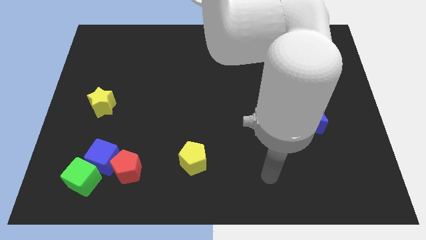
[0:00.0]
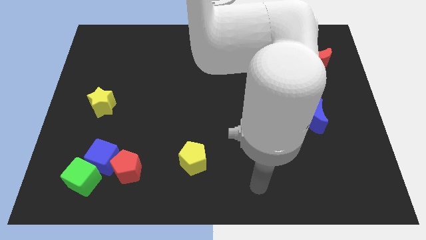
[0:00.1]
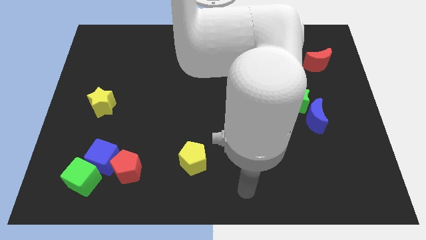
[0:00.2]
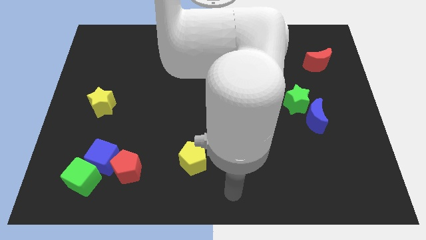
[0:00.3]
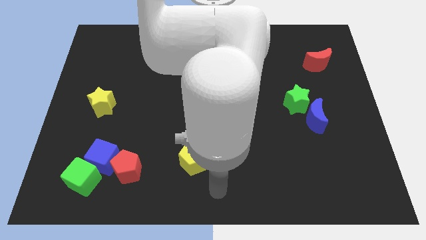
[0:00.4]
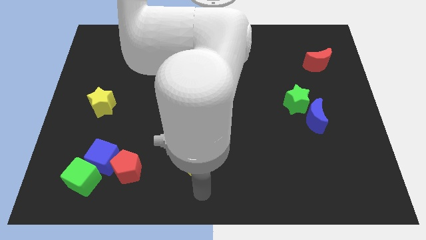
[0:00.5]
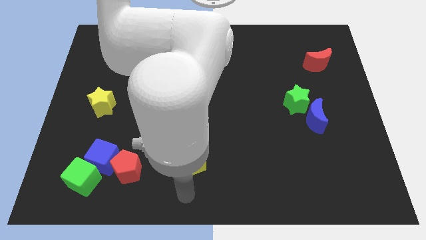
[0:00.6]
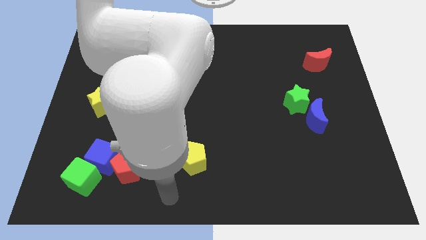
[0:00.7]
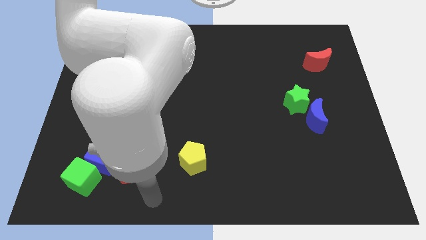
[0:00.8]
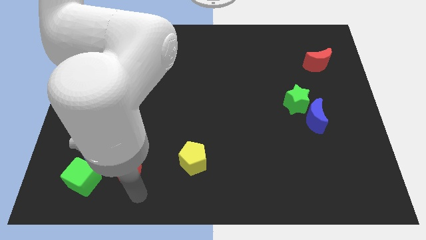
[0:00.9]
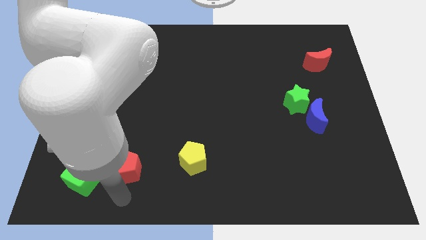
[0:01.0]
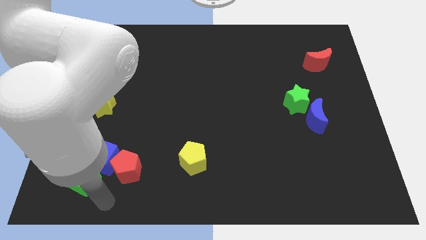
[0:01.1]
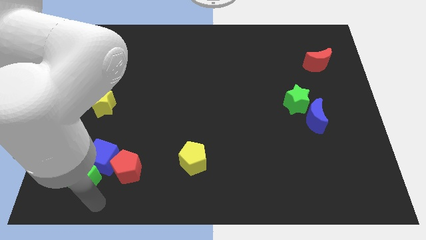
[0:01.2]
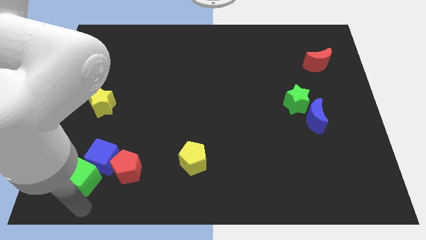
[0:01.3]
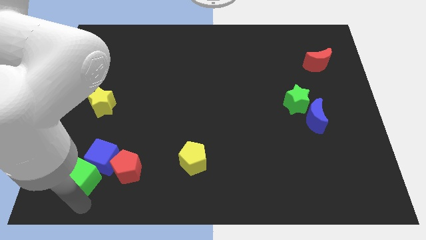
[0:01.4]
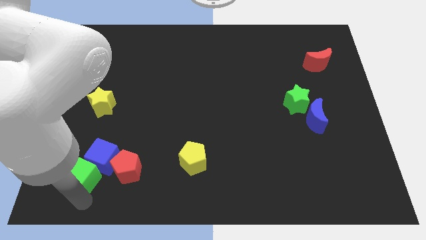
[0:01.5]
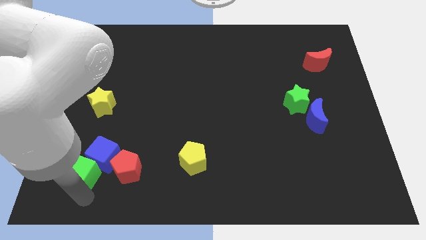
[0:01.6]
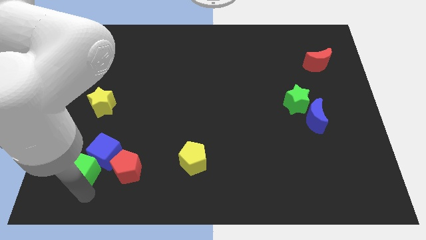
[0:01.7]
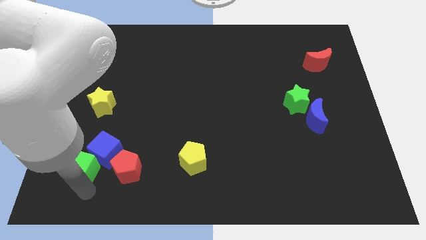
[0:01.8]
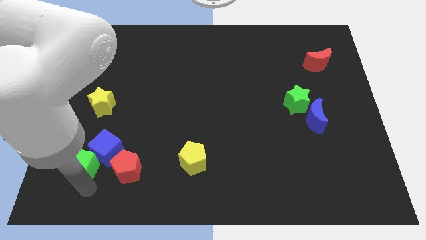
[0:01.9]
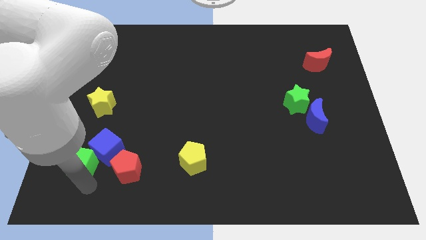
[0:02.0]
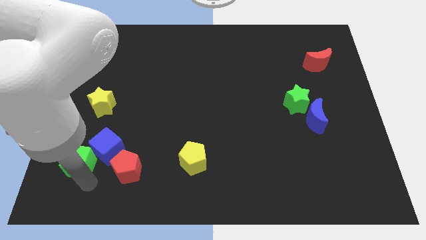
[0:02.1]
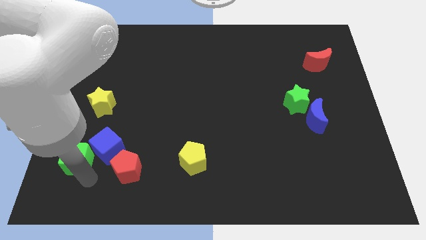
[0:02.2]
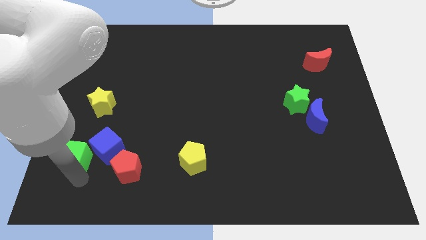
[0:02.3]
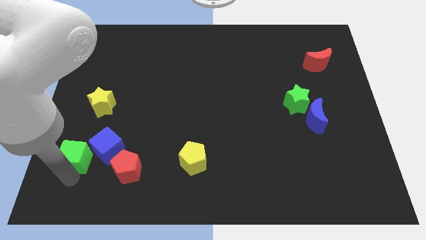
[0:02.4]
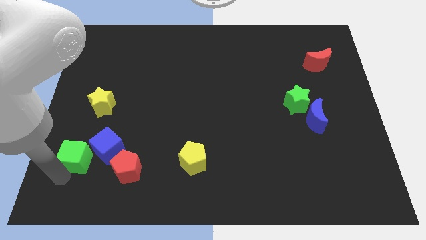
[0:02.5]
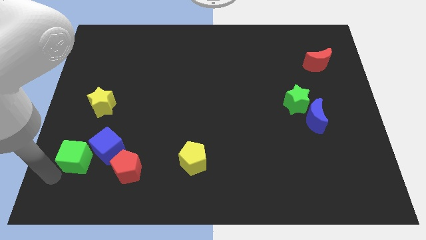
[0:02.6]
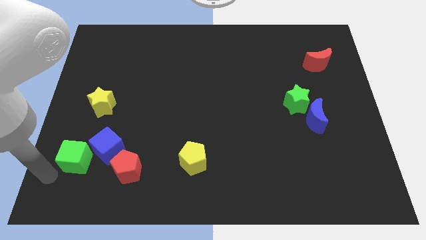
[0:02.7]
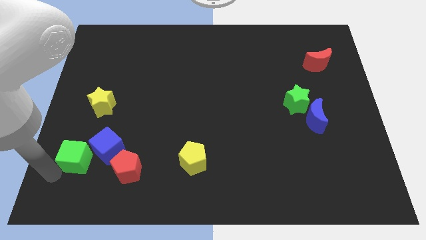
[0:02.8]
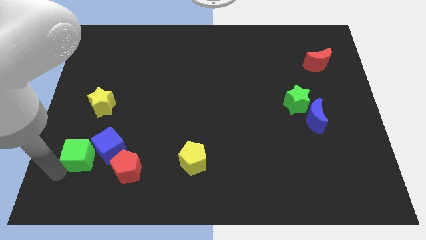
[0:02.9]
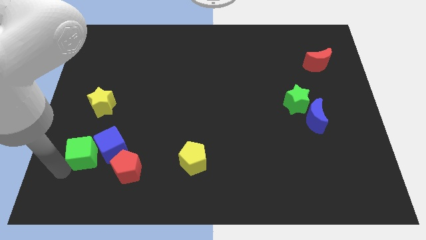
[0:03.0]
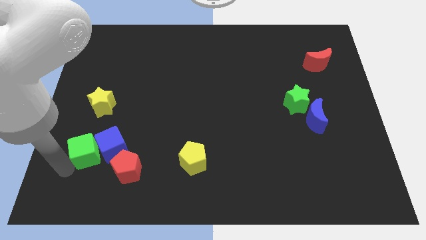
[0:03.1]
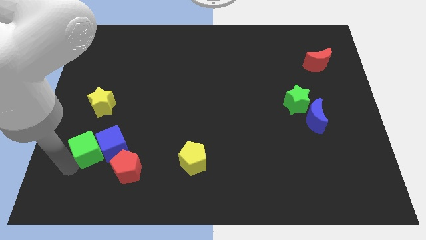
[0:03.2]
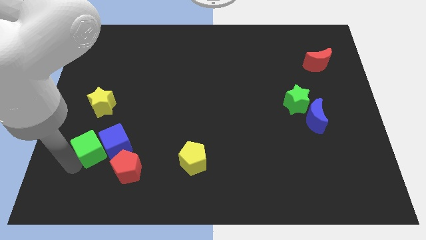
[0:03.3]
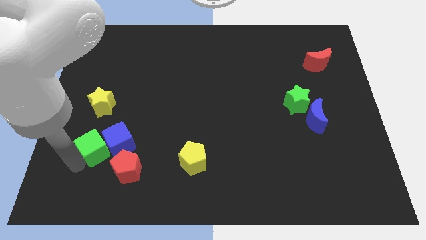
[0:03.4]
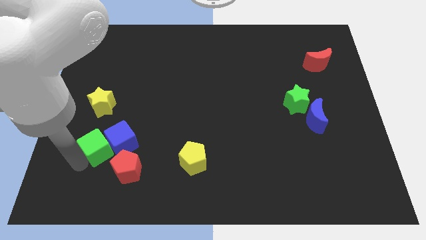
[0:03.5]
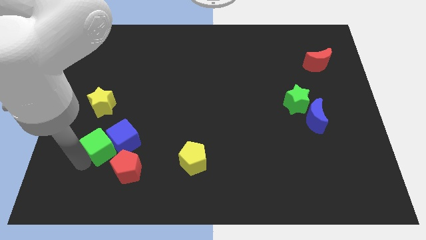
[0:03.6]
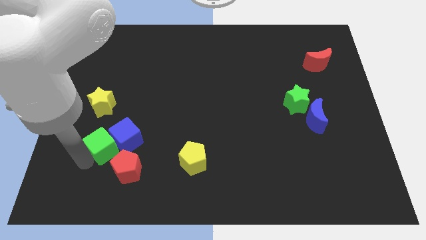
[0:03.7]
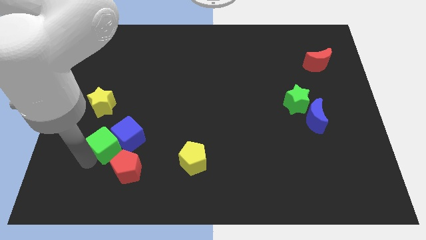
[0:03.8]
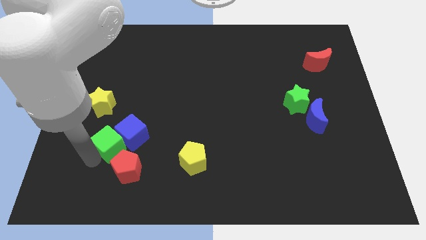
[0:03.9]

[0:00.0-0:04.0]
move the green cube to the top side of the red pentagon

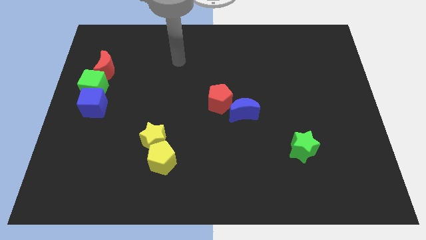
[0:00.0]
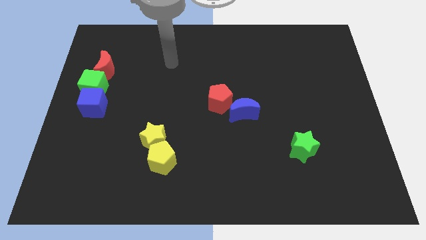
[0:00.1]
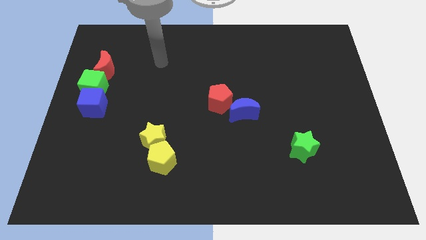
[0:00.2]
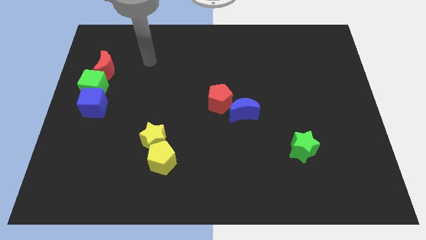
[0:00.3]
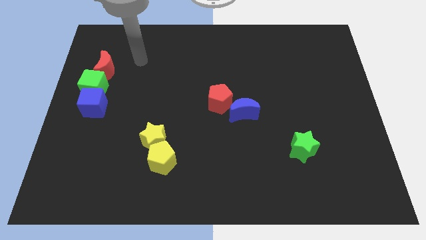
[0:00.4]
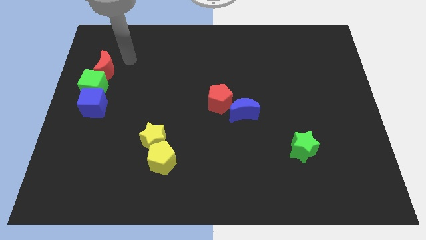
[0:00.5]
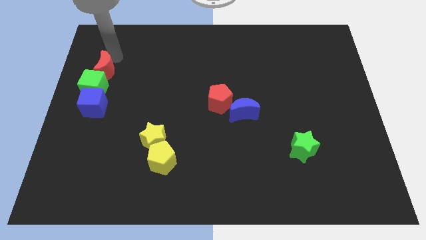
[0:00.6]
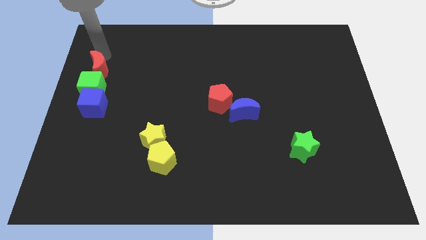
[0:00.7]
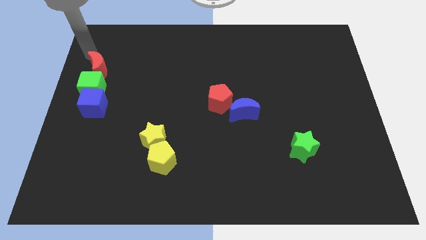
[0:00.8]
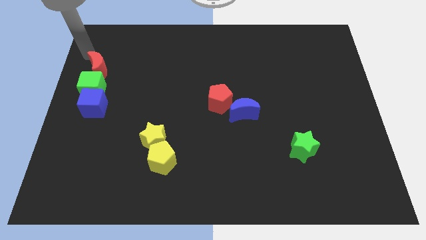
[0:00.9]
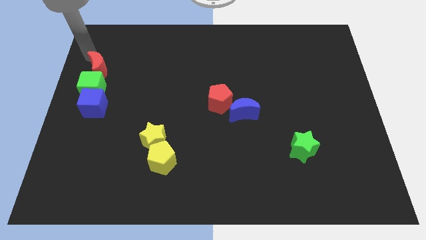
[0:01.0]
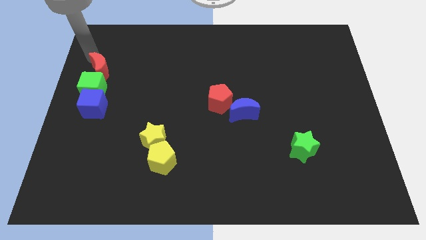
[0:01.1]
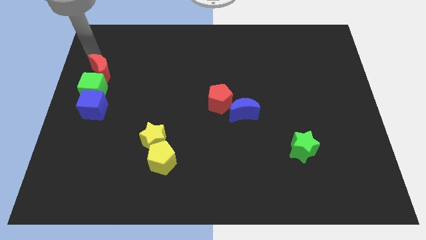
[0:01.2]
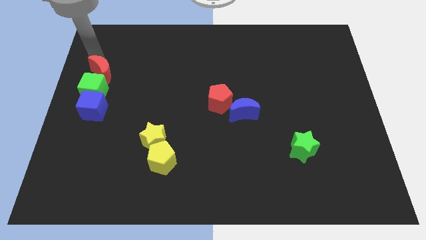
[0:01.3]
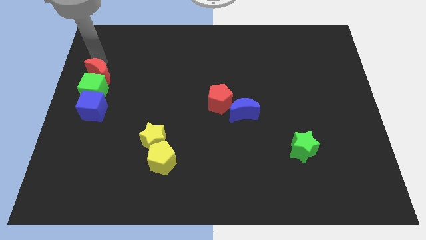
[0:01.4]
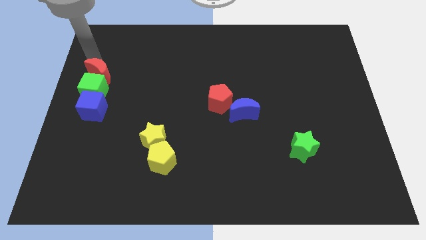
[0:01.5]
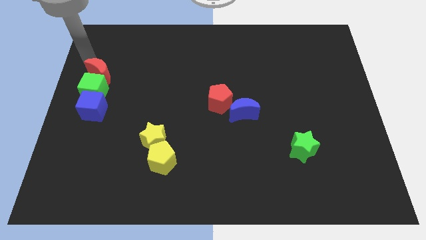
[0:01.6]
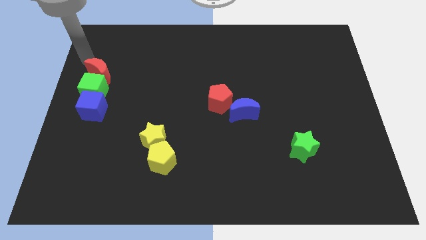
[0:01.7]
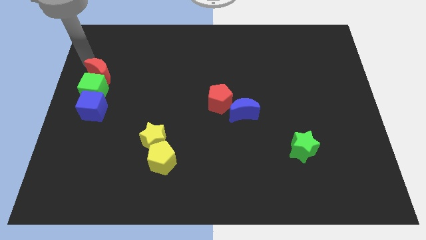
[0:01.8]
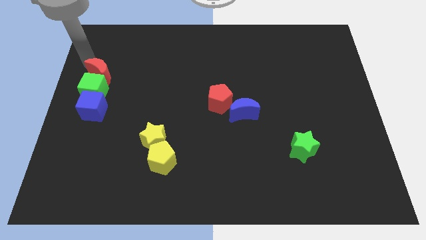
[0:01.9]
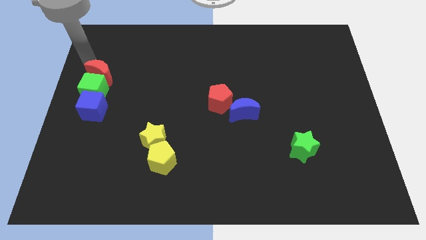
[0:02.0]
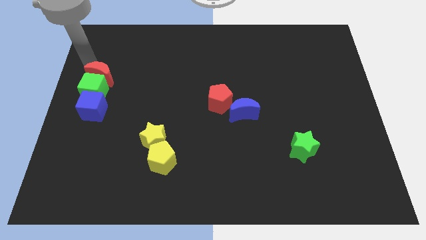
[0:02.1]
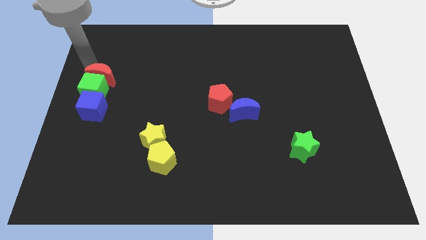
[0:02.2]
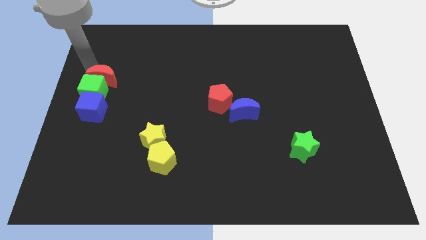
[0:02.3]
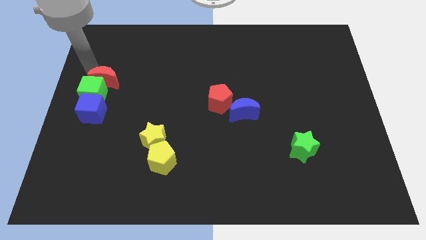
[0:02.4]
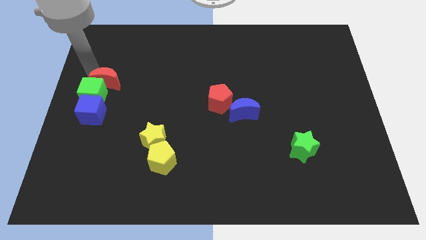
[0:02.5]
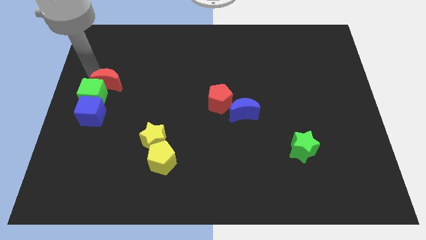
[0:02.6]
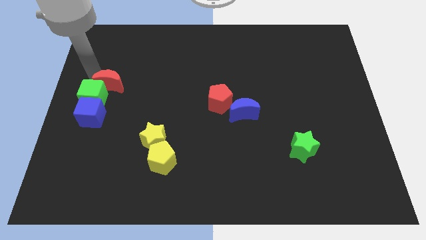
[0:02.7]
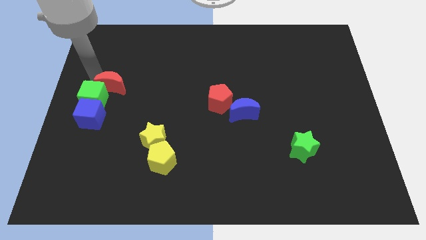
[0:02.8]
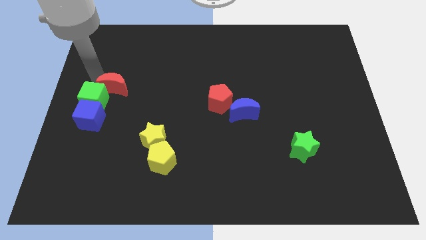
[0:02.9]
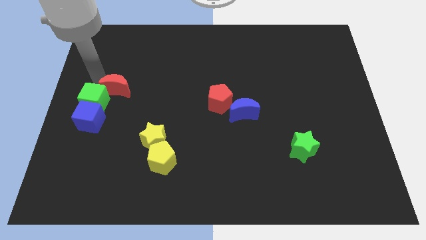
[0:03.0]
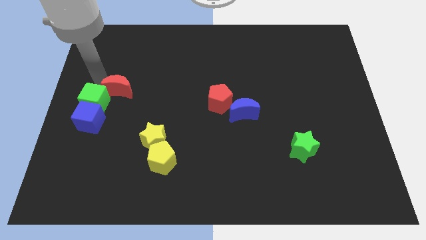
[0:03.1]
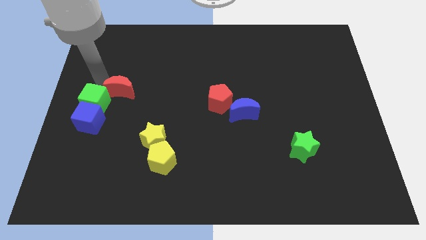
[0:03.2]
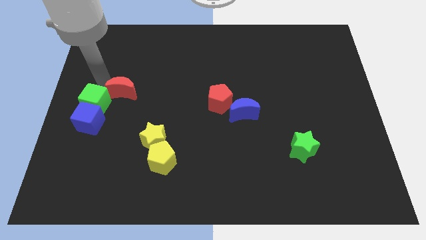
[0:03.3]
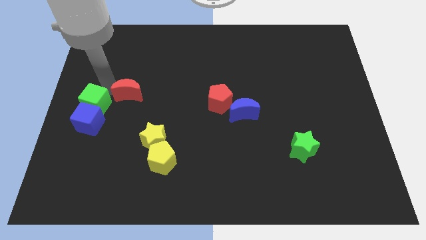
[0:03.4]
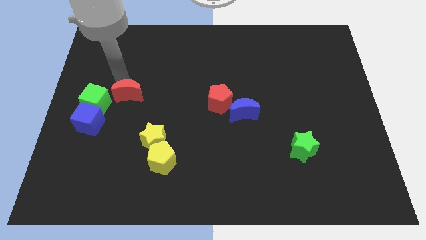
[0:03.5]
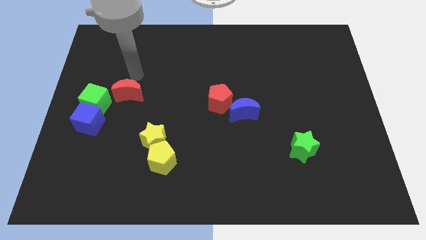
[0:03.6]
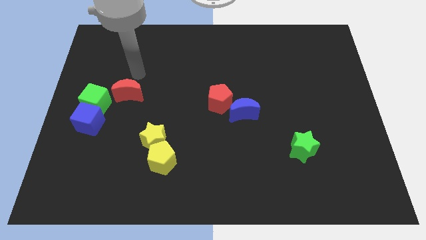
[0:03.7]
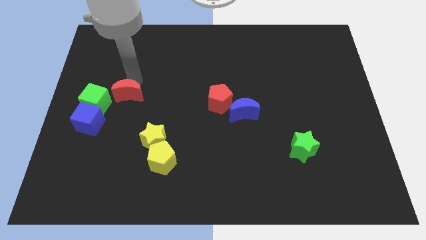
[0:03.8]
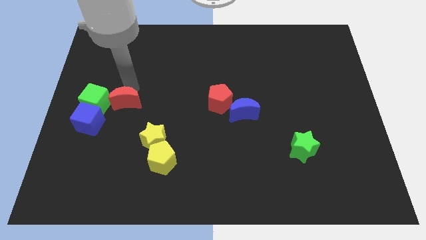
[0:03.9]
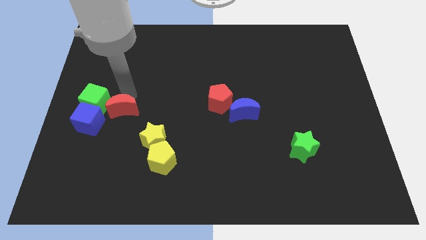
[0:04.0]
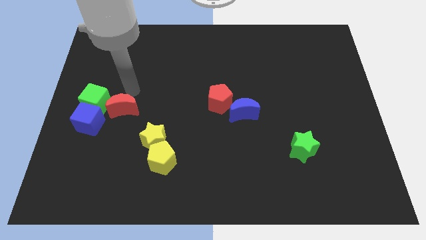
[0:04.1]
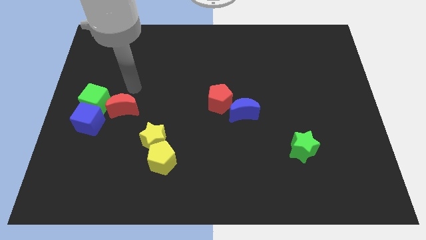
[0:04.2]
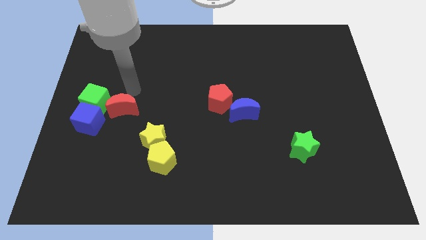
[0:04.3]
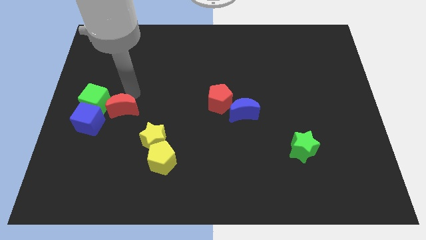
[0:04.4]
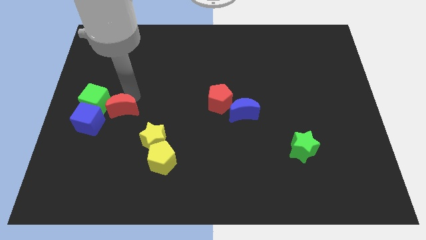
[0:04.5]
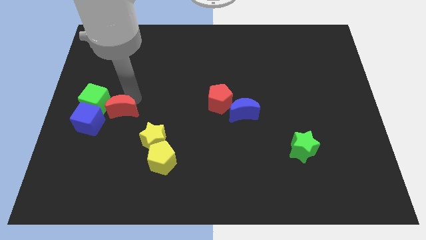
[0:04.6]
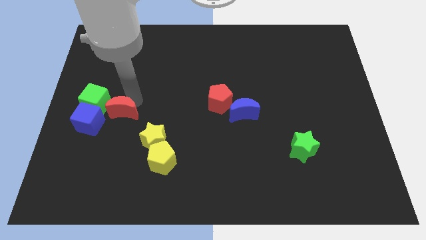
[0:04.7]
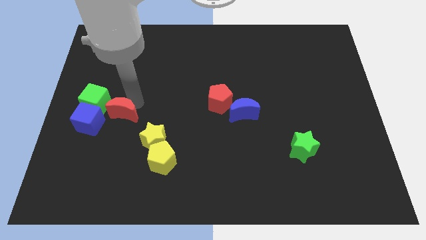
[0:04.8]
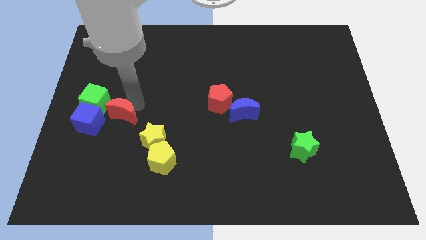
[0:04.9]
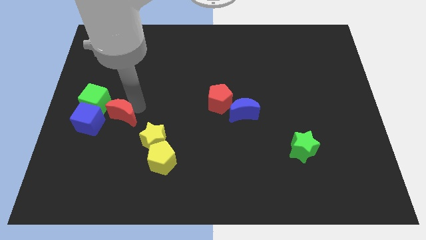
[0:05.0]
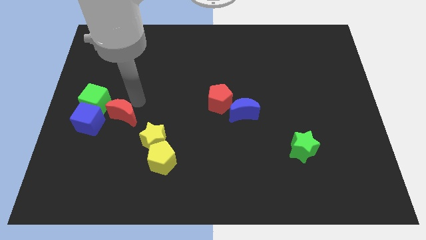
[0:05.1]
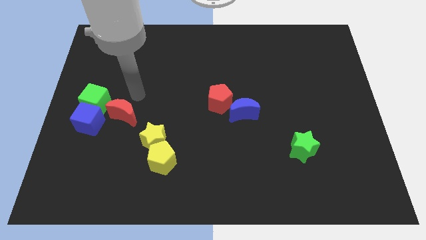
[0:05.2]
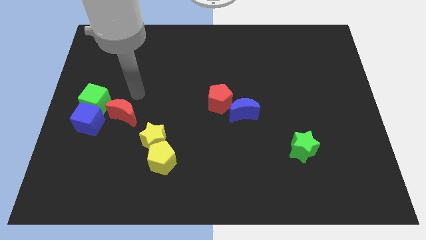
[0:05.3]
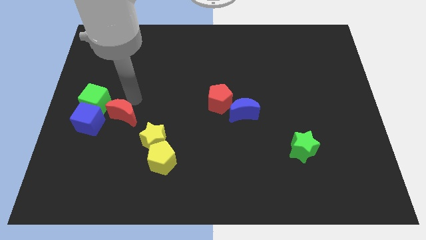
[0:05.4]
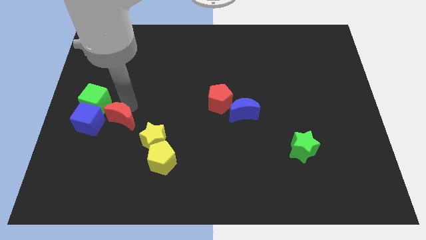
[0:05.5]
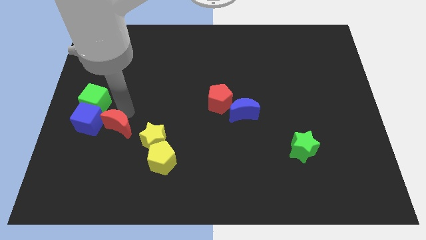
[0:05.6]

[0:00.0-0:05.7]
move the red moon to the bottom right side of the blue cube
